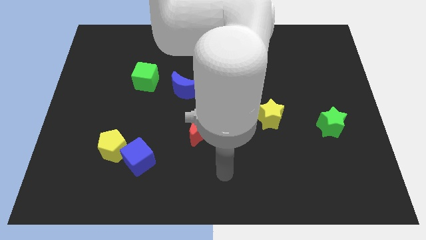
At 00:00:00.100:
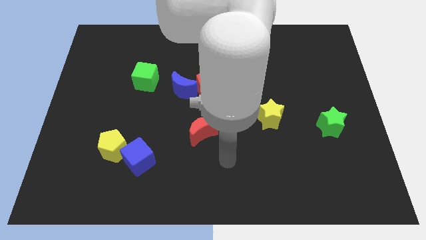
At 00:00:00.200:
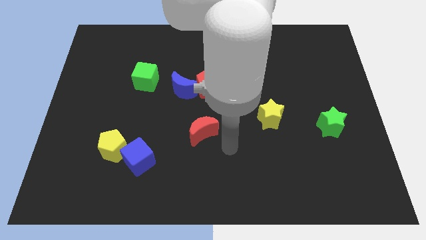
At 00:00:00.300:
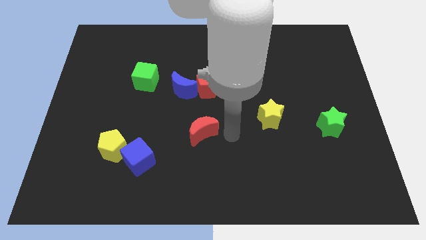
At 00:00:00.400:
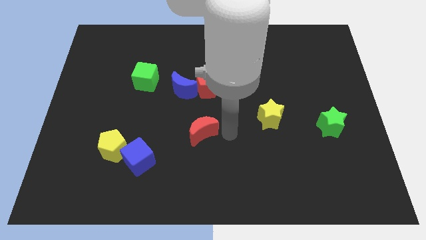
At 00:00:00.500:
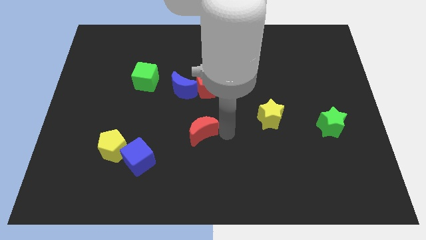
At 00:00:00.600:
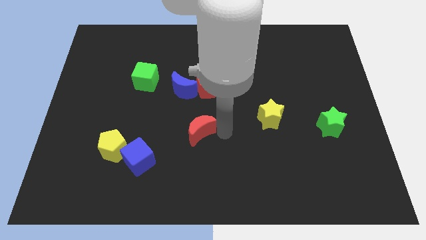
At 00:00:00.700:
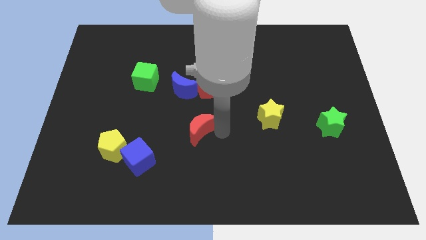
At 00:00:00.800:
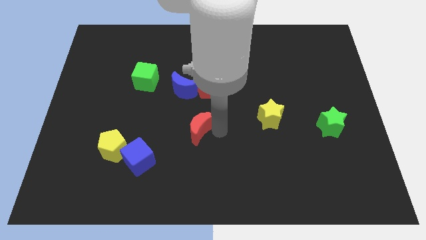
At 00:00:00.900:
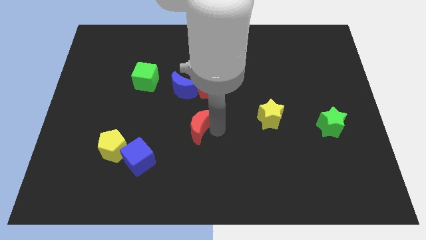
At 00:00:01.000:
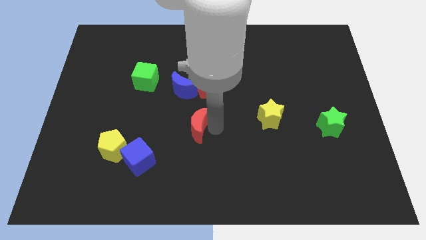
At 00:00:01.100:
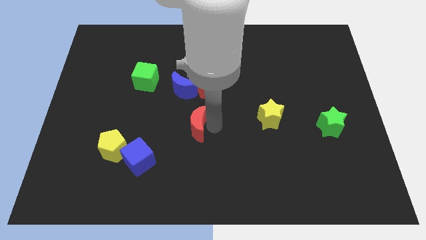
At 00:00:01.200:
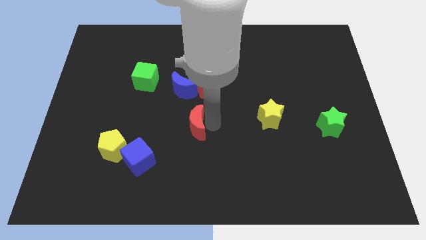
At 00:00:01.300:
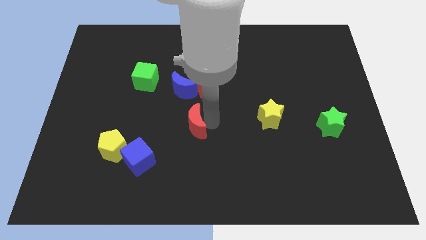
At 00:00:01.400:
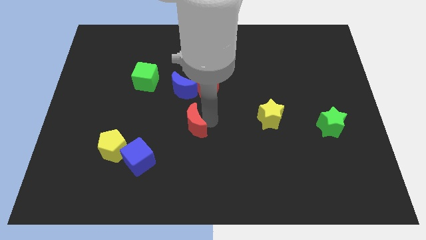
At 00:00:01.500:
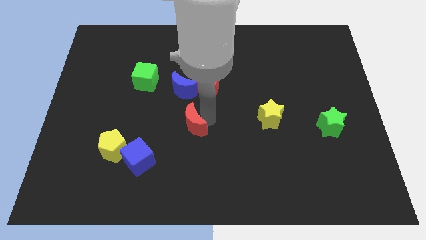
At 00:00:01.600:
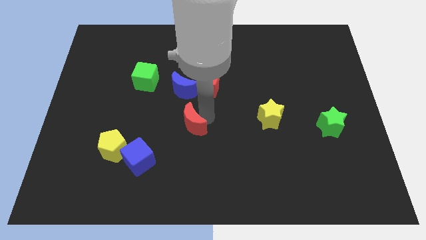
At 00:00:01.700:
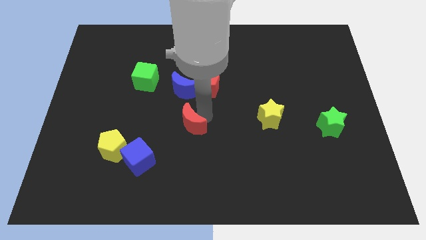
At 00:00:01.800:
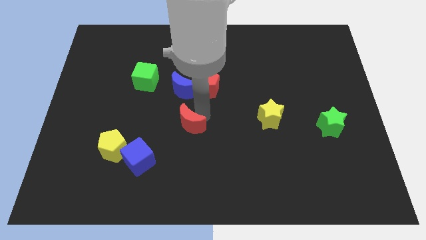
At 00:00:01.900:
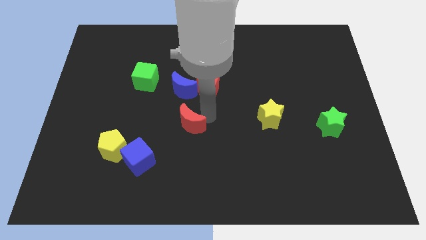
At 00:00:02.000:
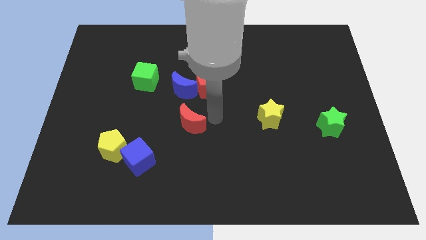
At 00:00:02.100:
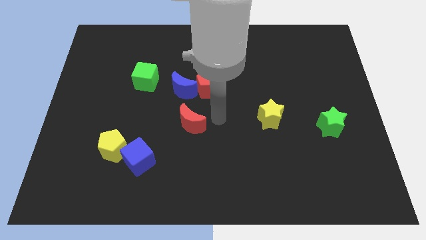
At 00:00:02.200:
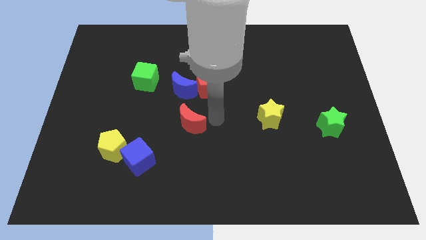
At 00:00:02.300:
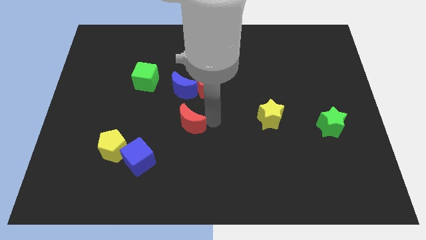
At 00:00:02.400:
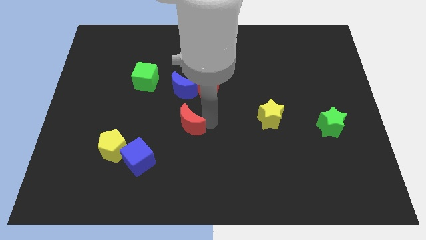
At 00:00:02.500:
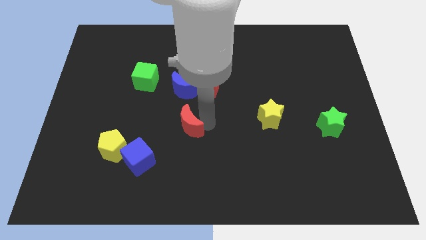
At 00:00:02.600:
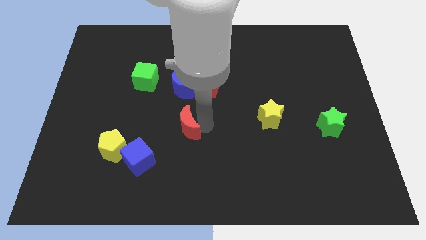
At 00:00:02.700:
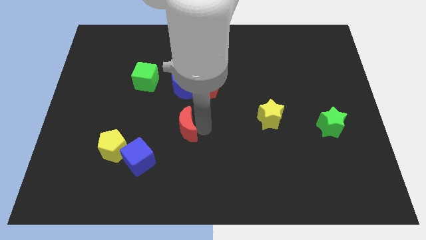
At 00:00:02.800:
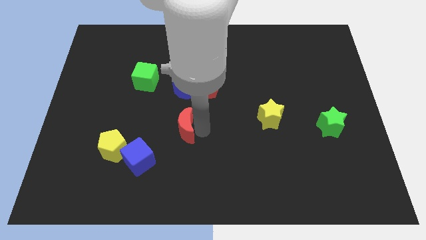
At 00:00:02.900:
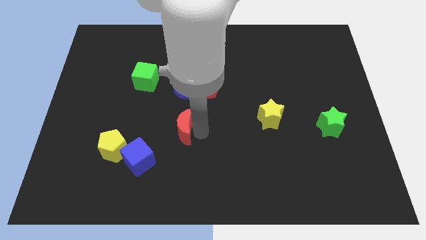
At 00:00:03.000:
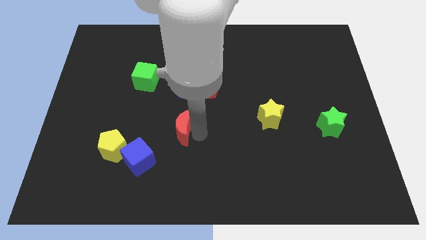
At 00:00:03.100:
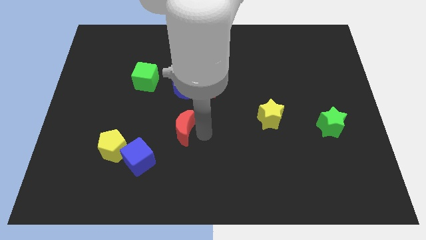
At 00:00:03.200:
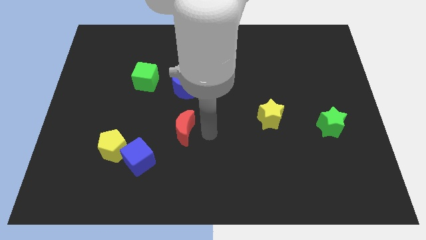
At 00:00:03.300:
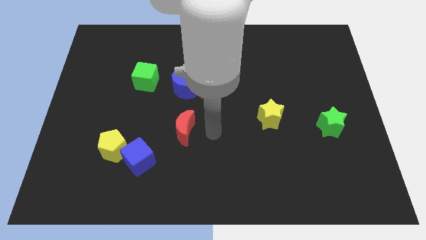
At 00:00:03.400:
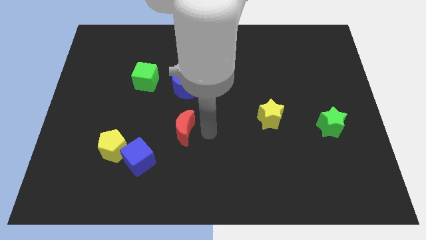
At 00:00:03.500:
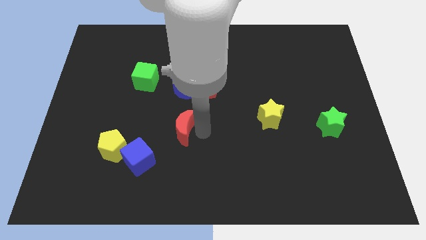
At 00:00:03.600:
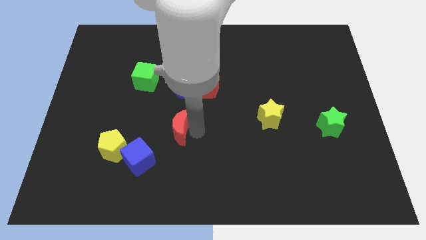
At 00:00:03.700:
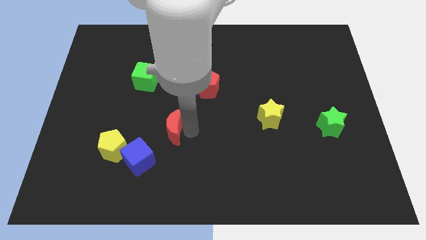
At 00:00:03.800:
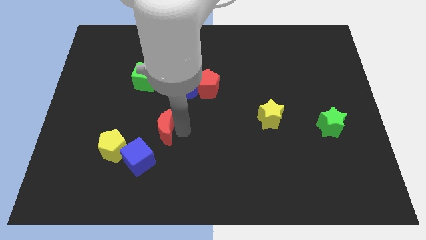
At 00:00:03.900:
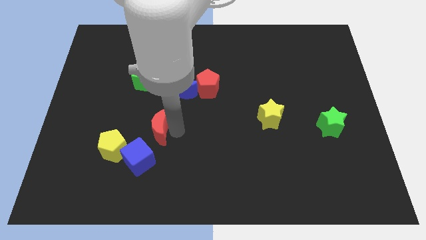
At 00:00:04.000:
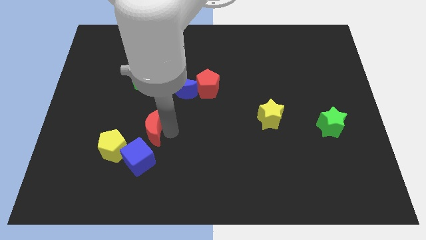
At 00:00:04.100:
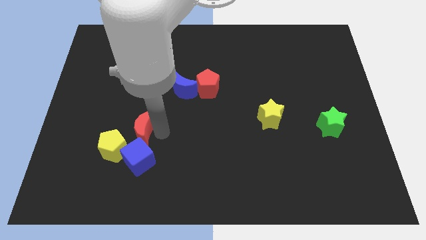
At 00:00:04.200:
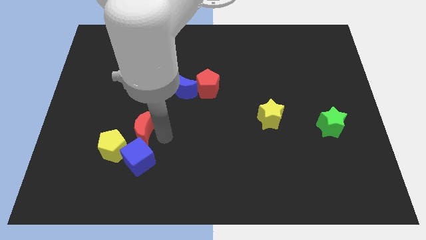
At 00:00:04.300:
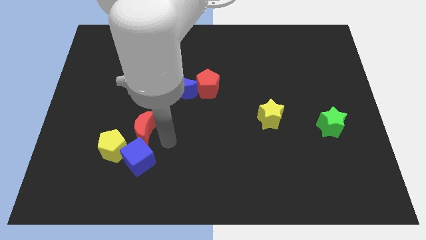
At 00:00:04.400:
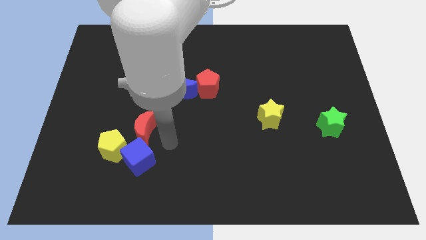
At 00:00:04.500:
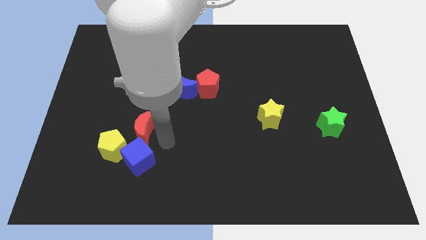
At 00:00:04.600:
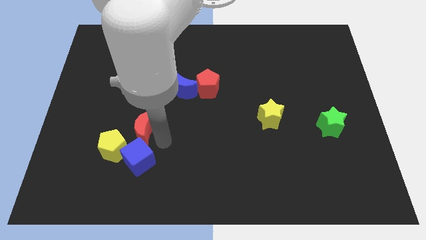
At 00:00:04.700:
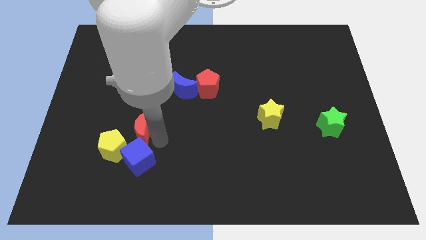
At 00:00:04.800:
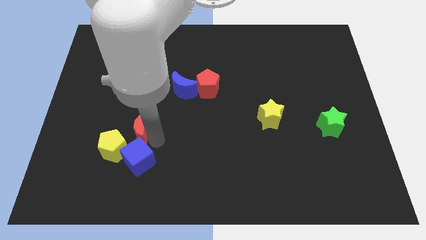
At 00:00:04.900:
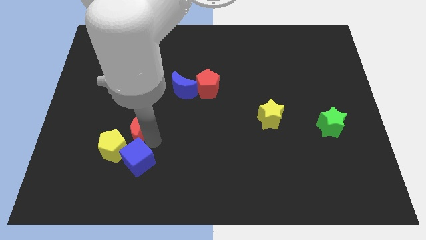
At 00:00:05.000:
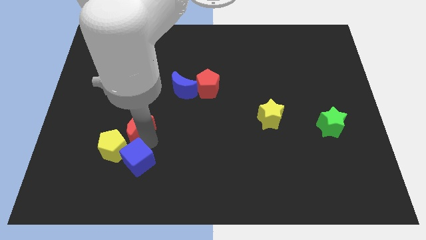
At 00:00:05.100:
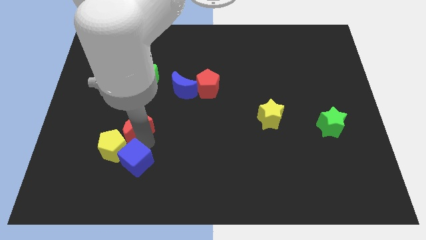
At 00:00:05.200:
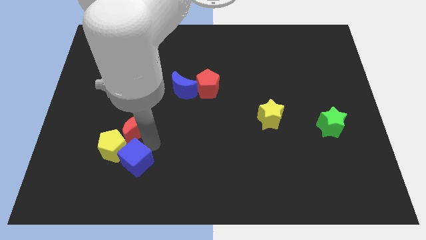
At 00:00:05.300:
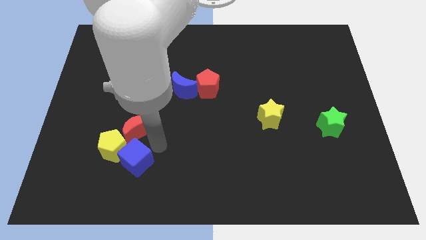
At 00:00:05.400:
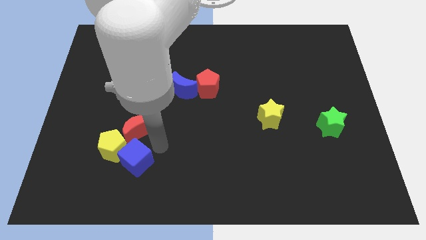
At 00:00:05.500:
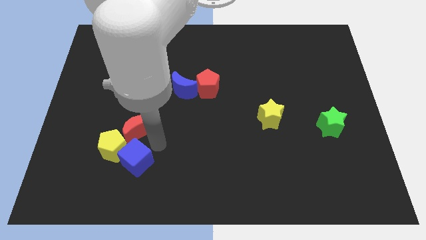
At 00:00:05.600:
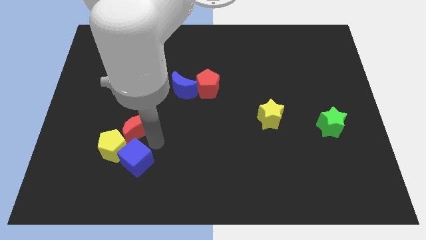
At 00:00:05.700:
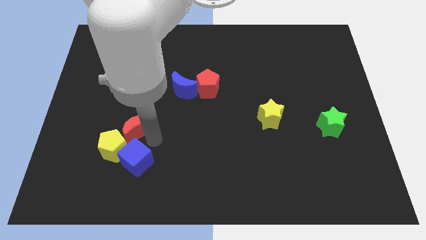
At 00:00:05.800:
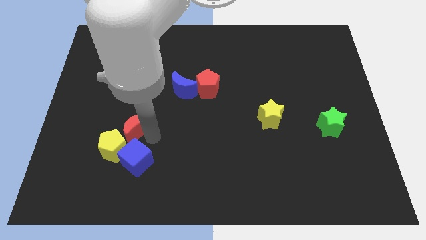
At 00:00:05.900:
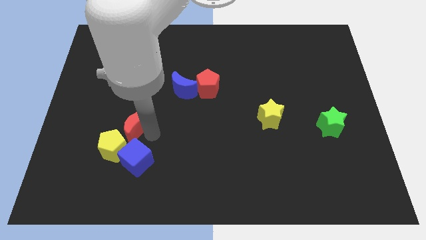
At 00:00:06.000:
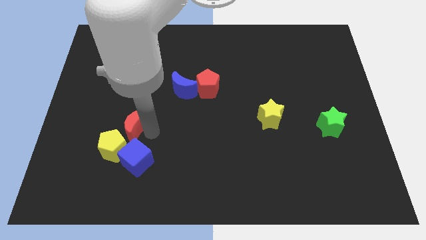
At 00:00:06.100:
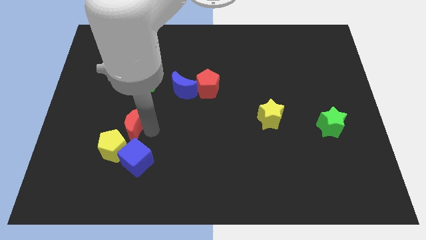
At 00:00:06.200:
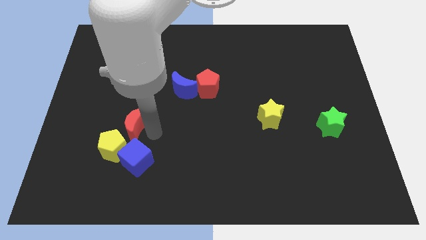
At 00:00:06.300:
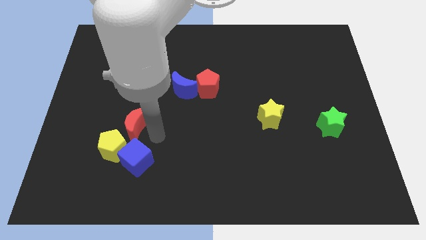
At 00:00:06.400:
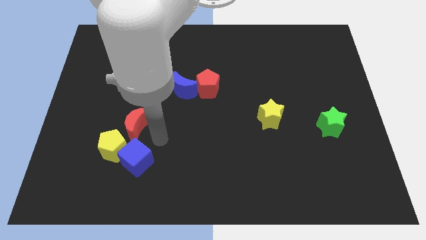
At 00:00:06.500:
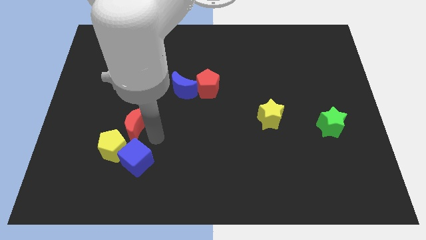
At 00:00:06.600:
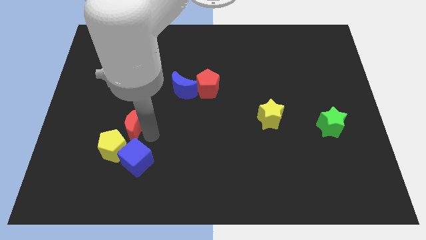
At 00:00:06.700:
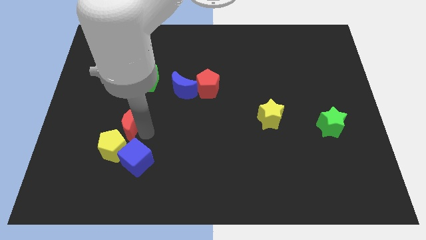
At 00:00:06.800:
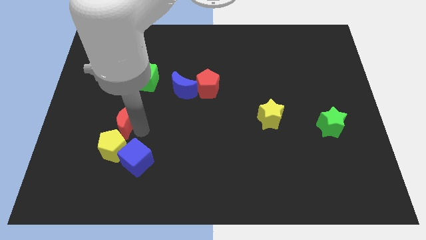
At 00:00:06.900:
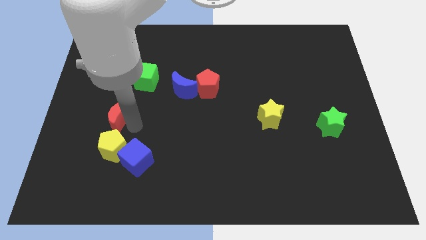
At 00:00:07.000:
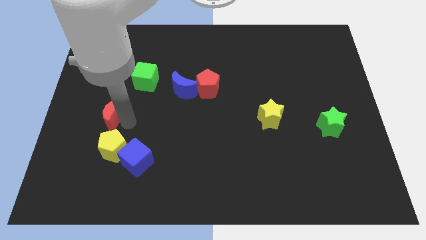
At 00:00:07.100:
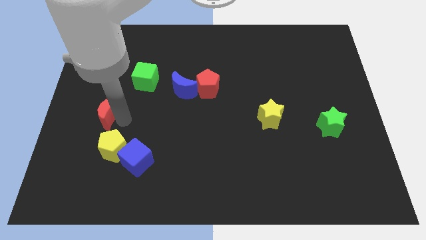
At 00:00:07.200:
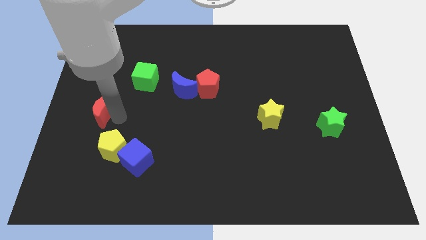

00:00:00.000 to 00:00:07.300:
slide the red moon to the left side
